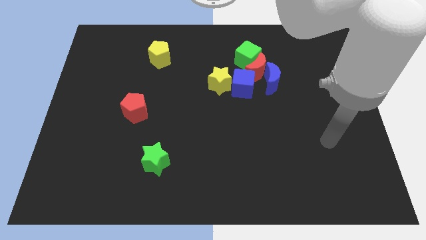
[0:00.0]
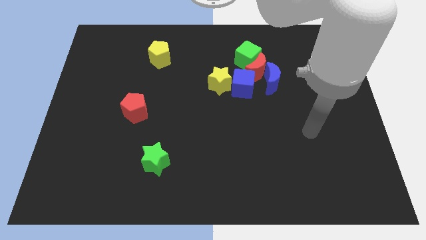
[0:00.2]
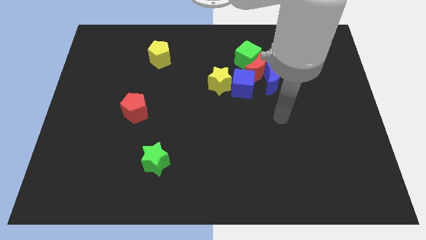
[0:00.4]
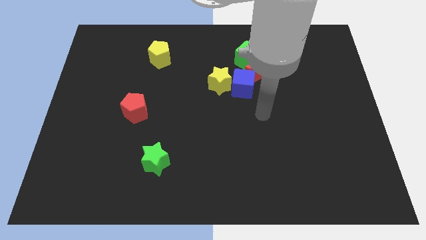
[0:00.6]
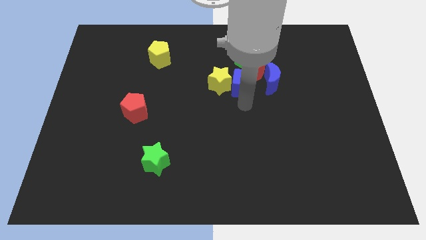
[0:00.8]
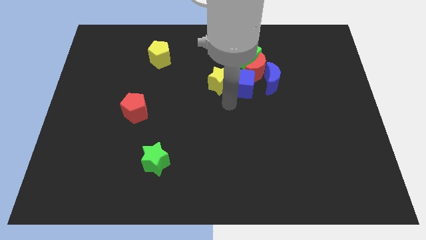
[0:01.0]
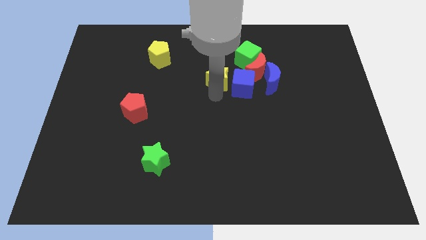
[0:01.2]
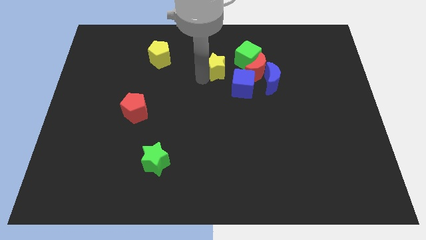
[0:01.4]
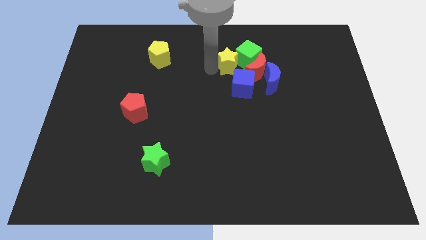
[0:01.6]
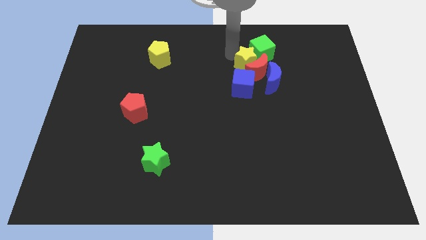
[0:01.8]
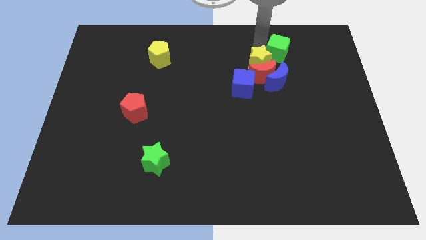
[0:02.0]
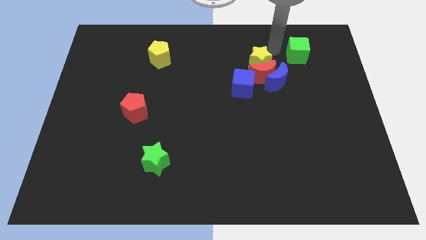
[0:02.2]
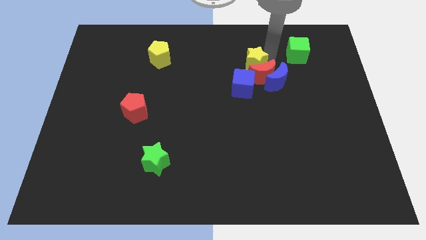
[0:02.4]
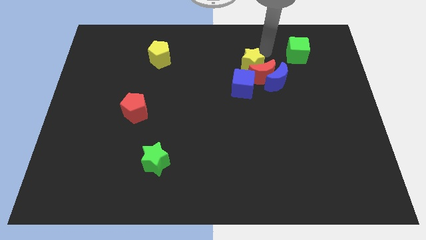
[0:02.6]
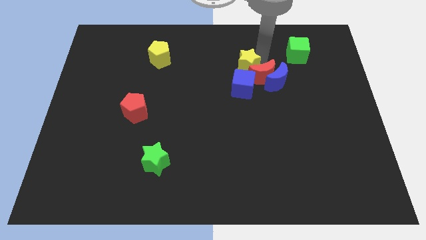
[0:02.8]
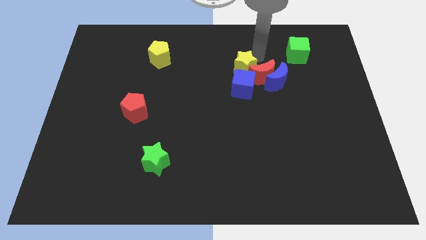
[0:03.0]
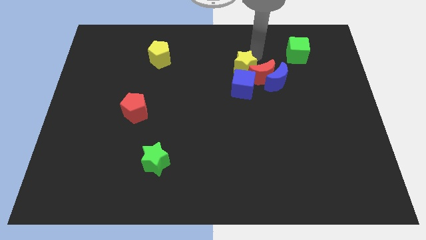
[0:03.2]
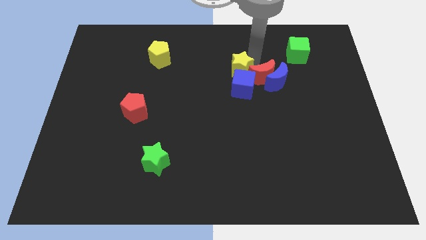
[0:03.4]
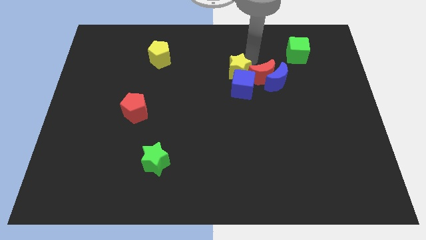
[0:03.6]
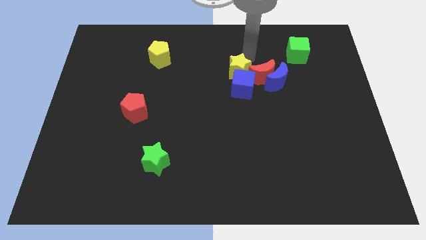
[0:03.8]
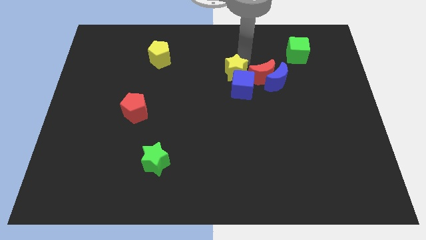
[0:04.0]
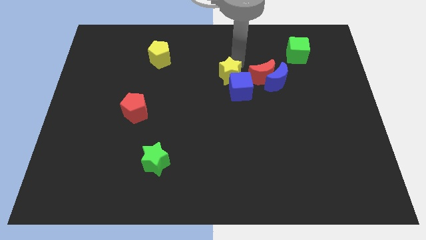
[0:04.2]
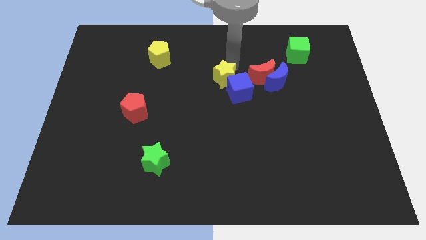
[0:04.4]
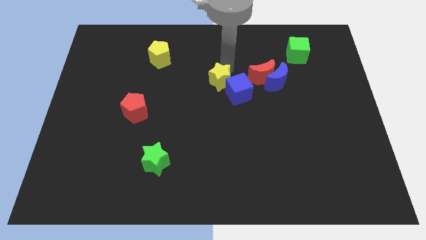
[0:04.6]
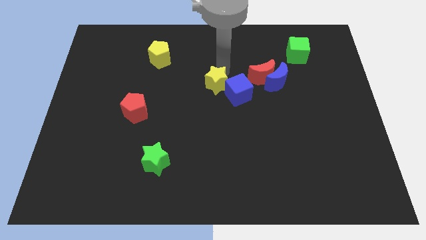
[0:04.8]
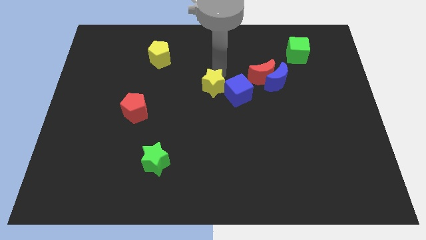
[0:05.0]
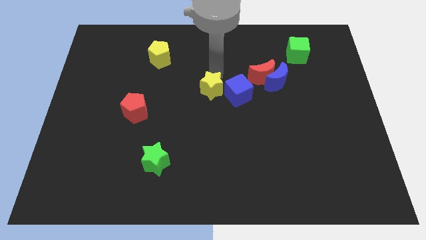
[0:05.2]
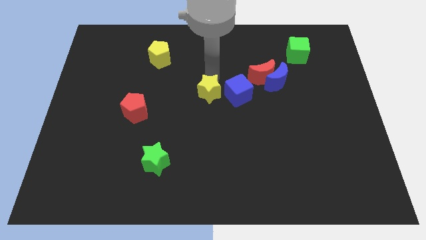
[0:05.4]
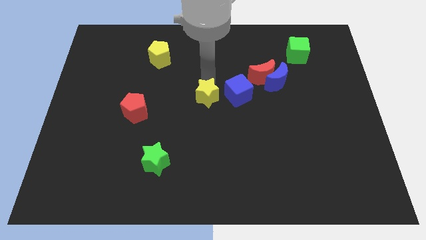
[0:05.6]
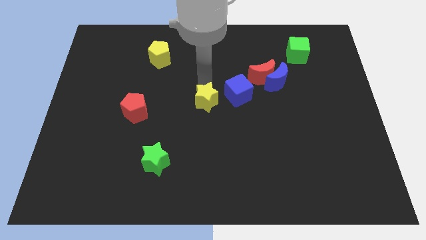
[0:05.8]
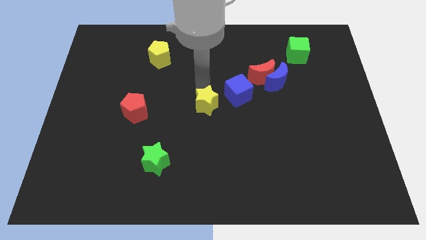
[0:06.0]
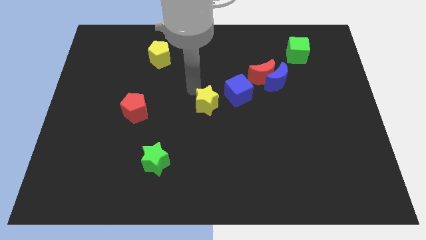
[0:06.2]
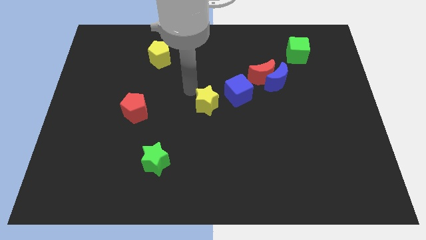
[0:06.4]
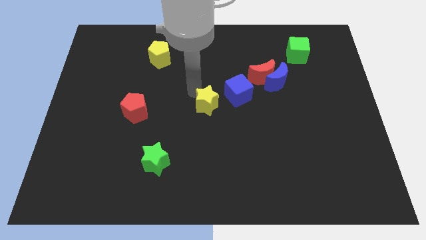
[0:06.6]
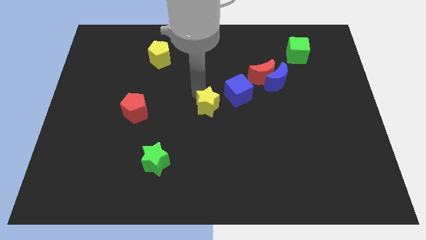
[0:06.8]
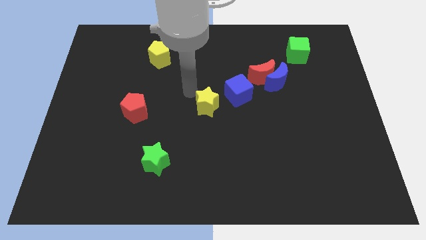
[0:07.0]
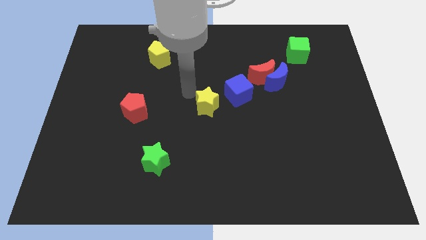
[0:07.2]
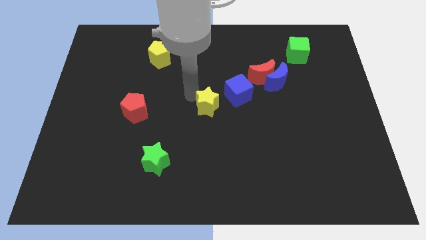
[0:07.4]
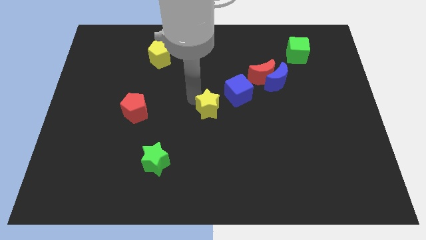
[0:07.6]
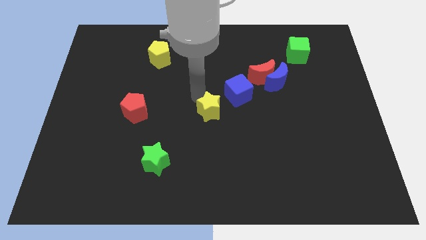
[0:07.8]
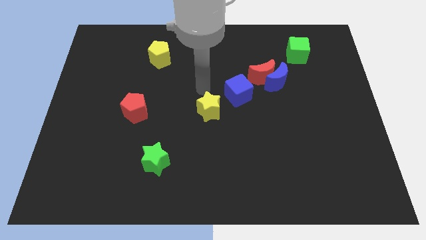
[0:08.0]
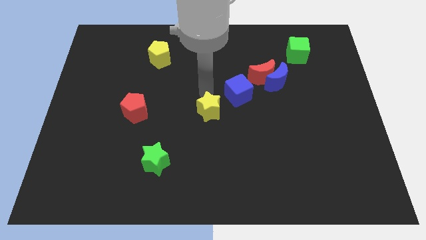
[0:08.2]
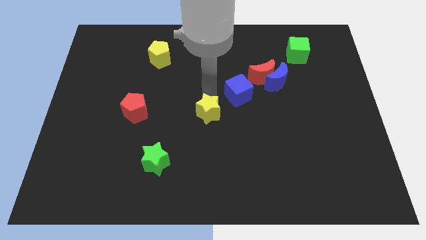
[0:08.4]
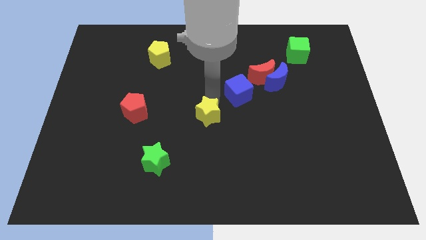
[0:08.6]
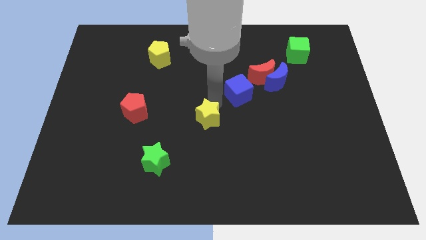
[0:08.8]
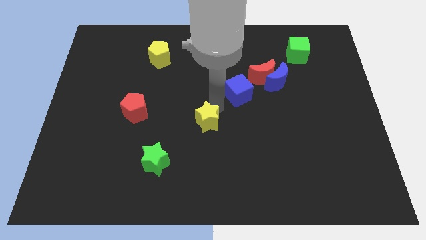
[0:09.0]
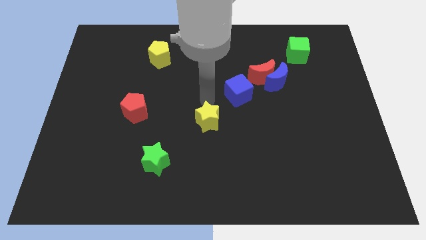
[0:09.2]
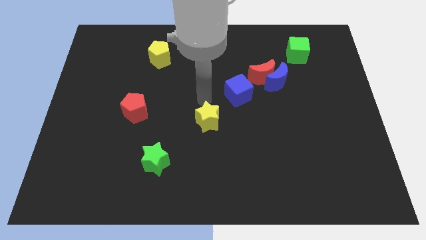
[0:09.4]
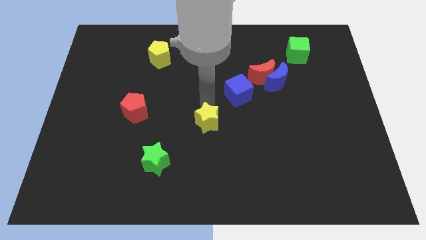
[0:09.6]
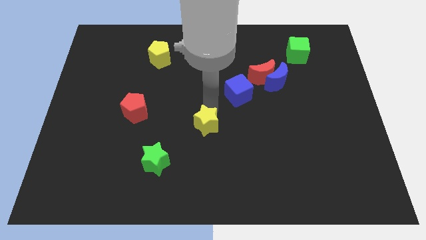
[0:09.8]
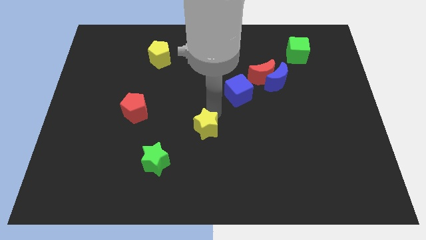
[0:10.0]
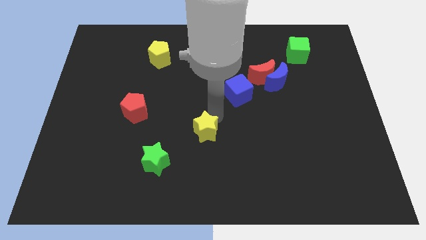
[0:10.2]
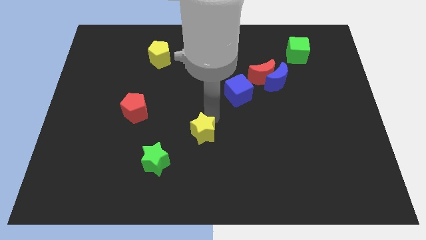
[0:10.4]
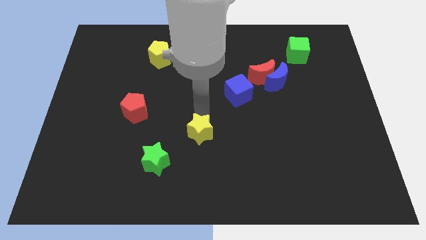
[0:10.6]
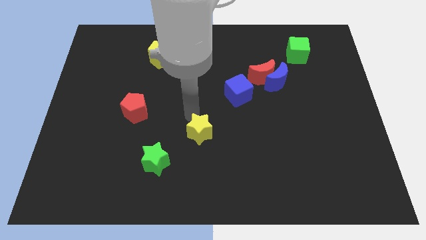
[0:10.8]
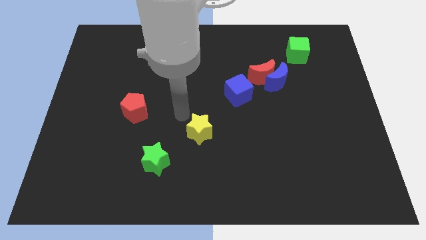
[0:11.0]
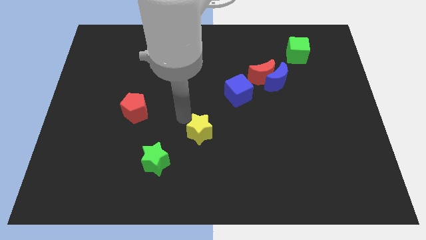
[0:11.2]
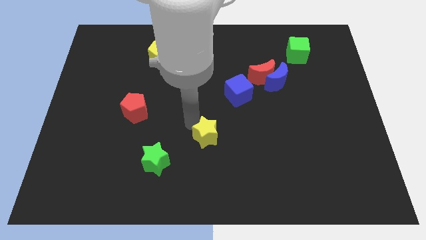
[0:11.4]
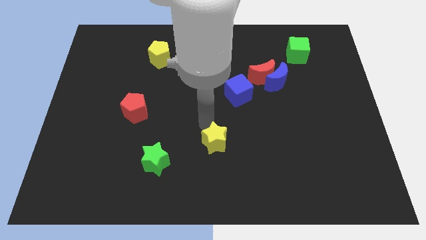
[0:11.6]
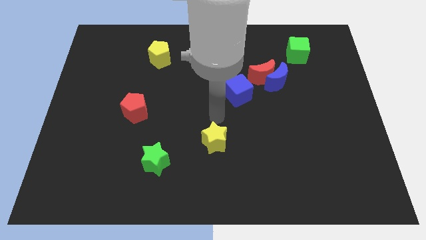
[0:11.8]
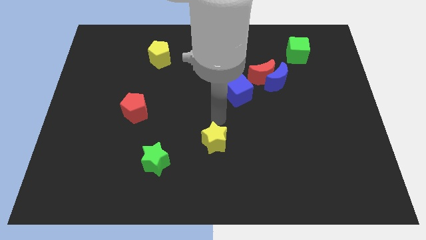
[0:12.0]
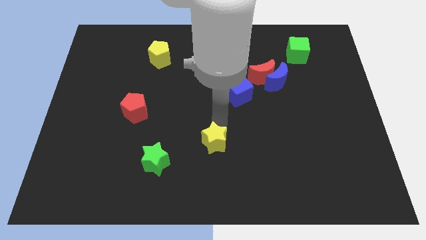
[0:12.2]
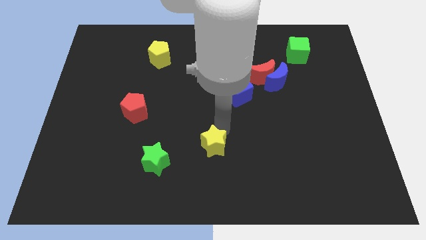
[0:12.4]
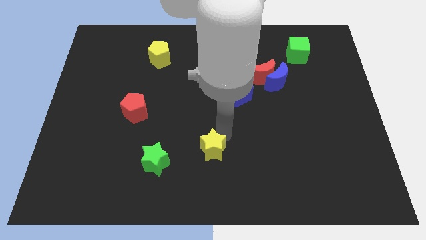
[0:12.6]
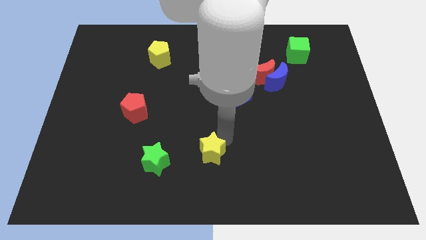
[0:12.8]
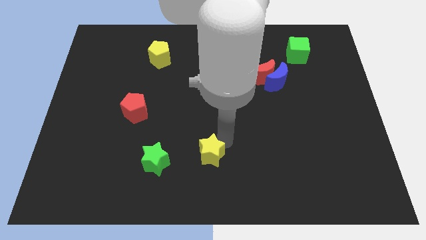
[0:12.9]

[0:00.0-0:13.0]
put the yellow star to the bottom

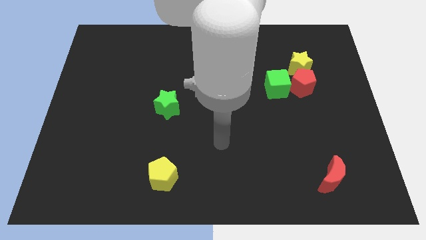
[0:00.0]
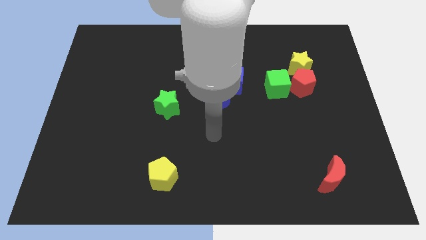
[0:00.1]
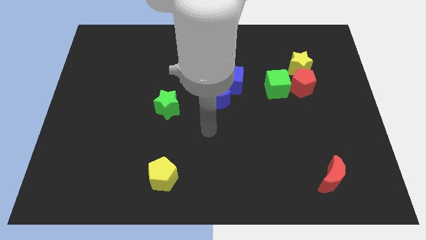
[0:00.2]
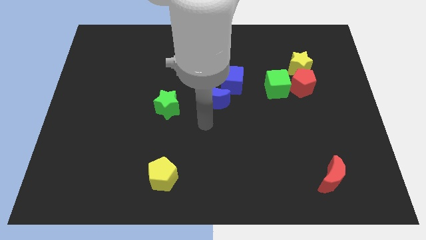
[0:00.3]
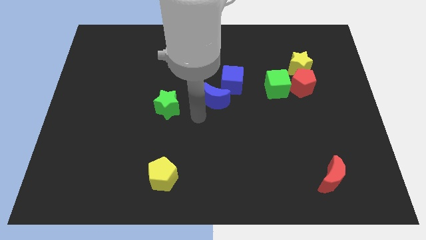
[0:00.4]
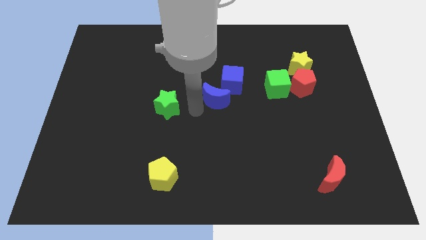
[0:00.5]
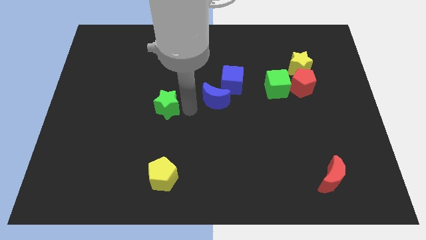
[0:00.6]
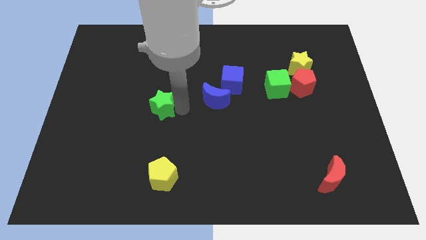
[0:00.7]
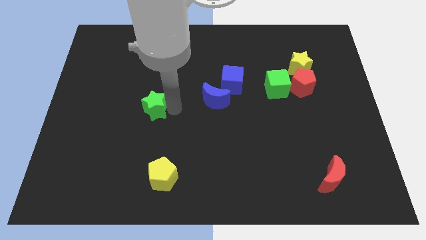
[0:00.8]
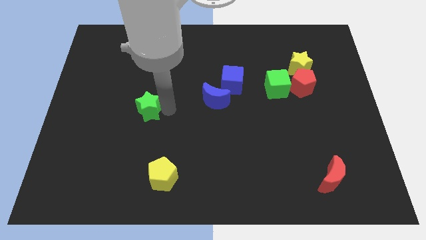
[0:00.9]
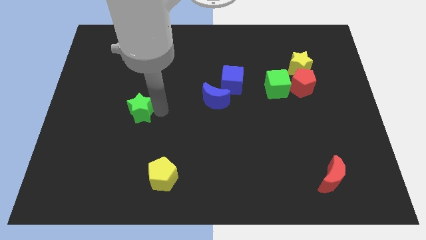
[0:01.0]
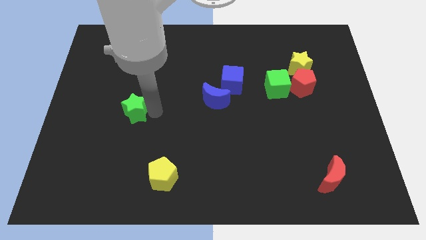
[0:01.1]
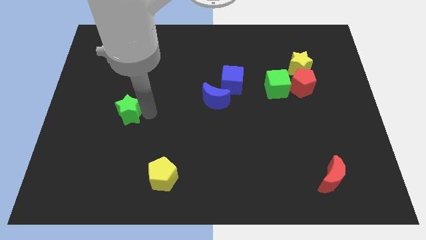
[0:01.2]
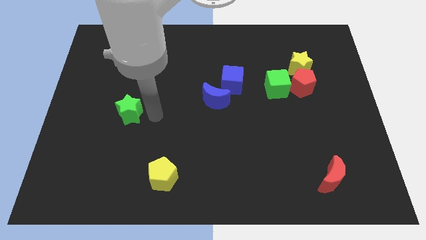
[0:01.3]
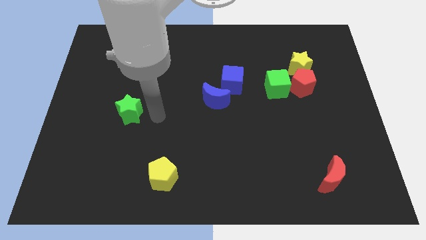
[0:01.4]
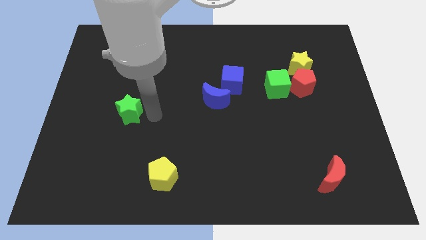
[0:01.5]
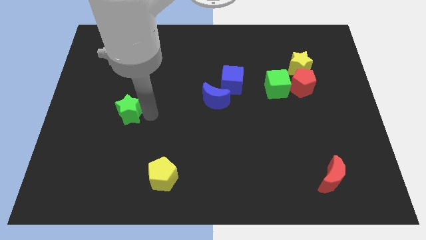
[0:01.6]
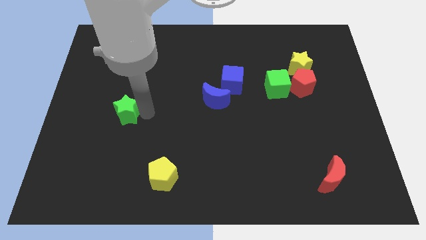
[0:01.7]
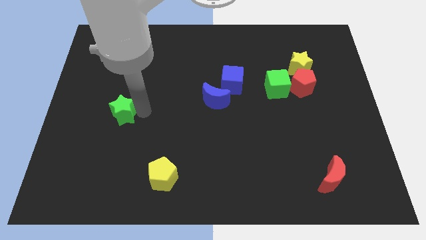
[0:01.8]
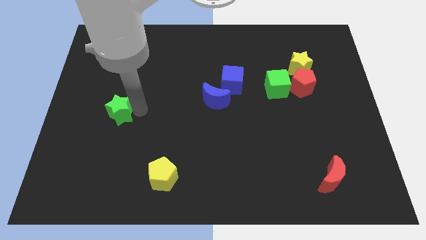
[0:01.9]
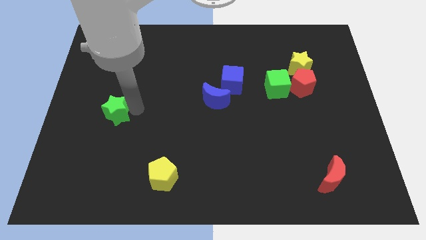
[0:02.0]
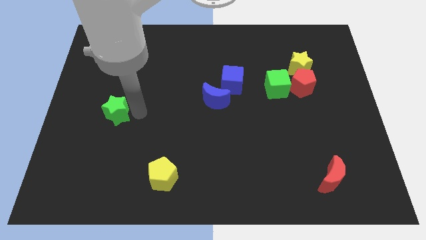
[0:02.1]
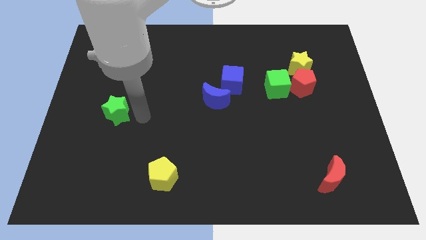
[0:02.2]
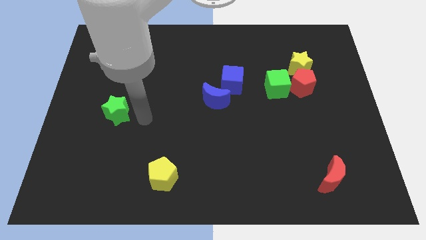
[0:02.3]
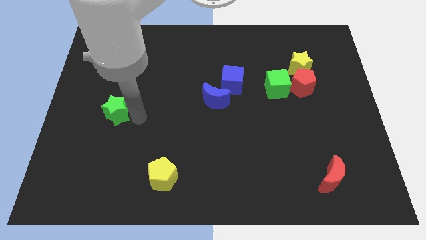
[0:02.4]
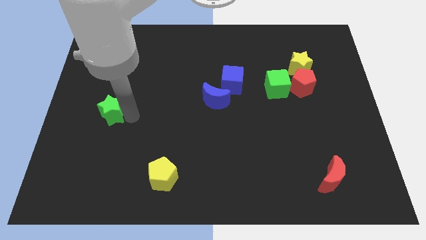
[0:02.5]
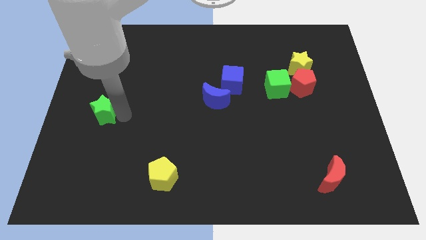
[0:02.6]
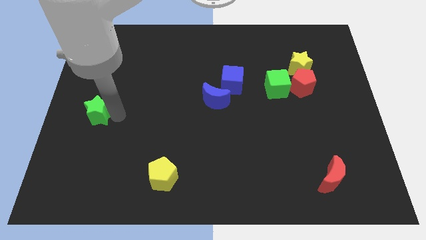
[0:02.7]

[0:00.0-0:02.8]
push the green star to the center left
